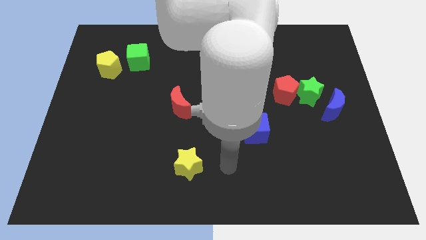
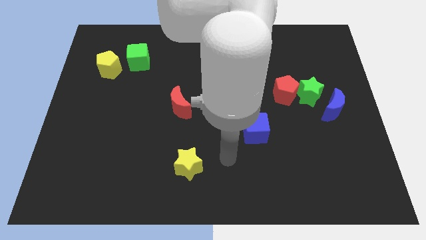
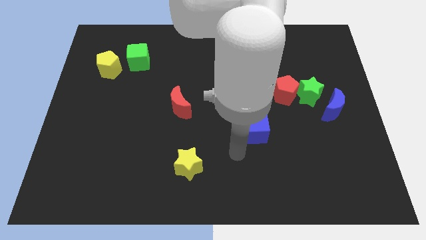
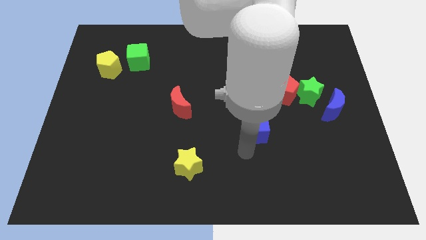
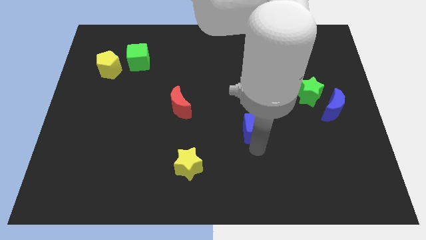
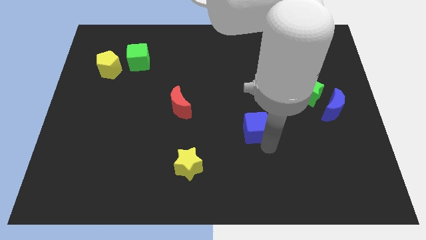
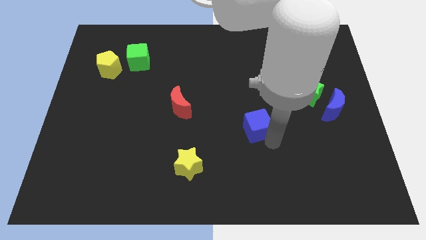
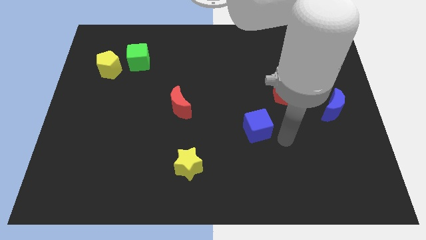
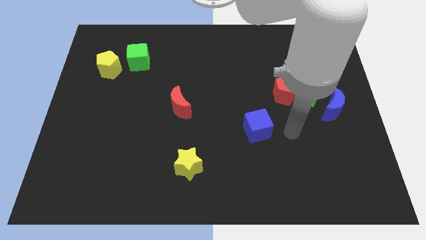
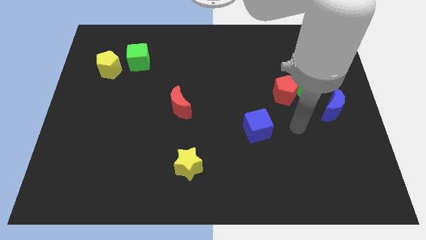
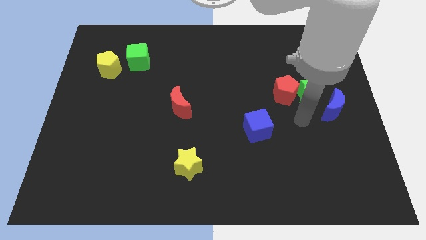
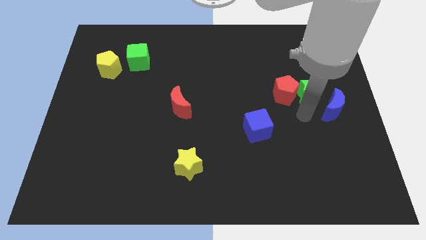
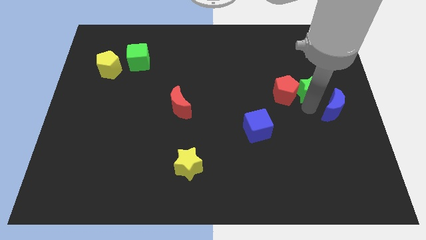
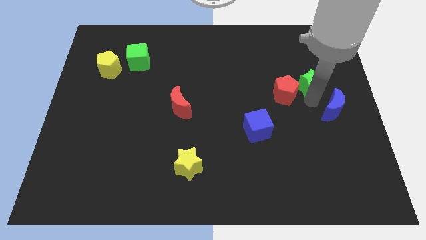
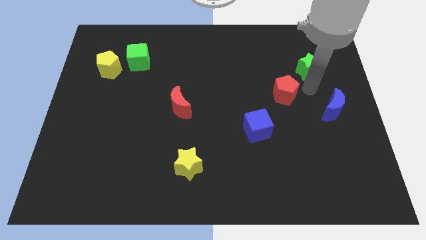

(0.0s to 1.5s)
move the red pentagon away from the green star

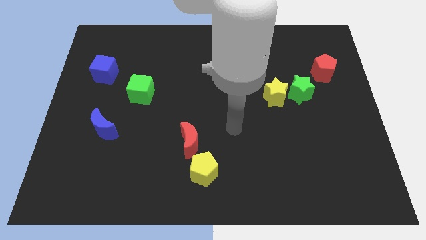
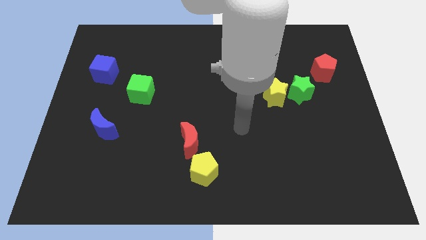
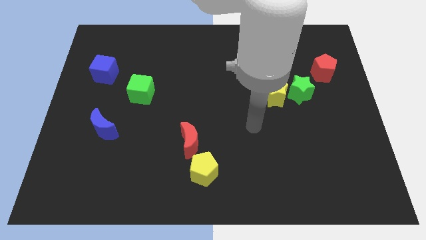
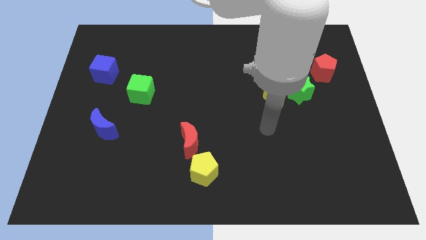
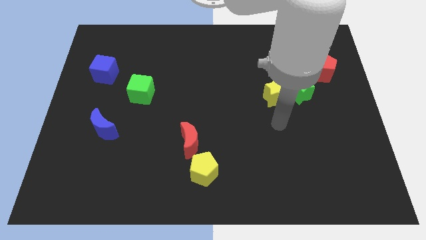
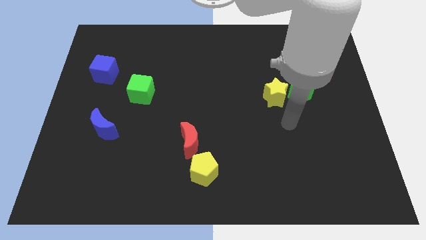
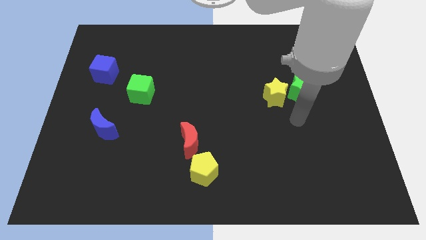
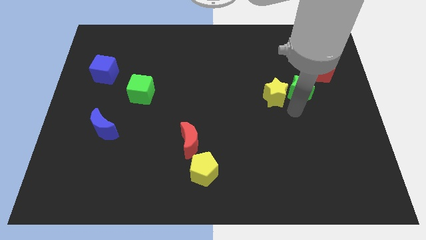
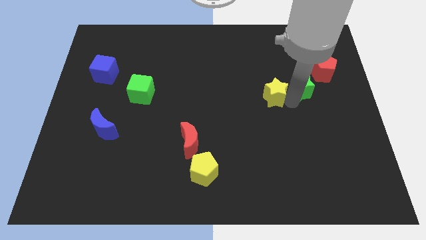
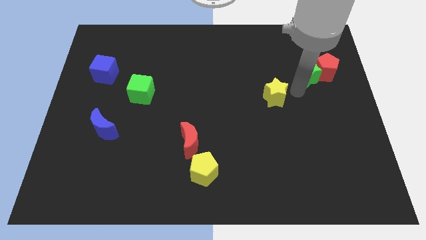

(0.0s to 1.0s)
separate the yellow star from the green star

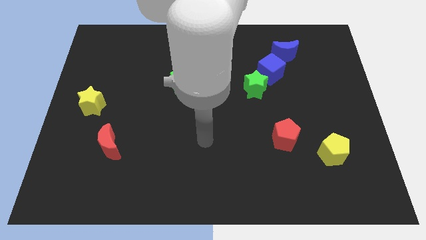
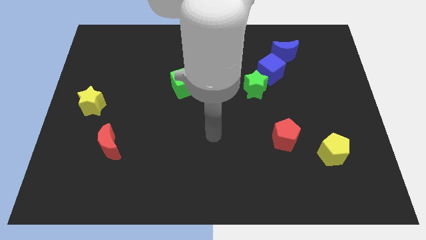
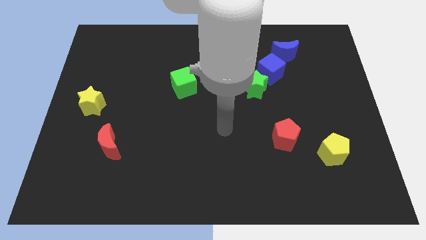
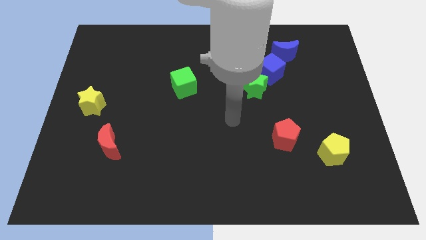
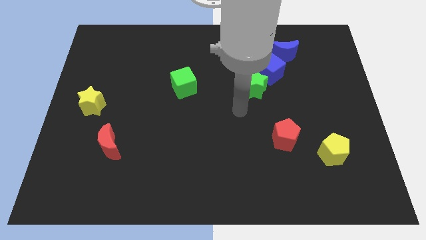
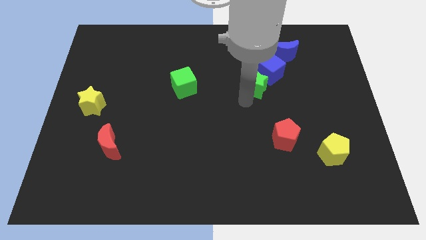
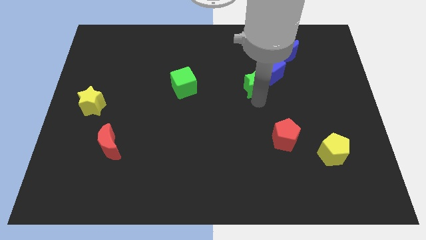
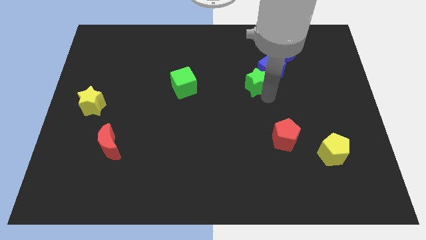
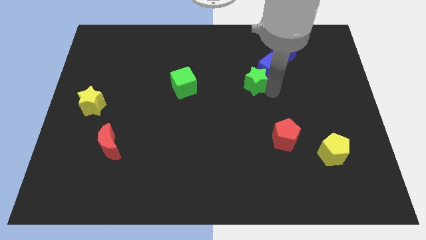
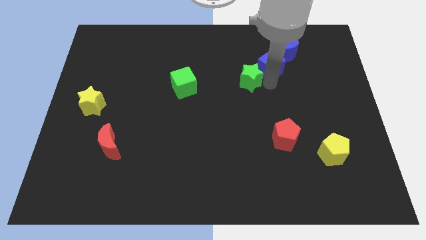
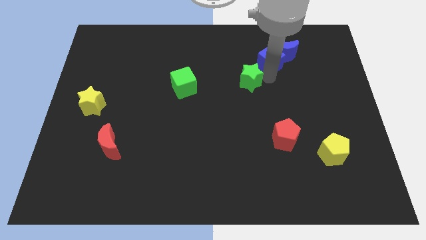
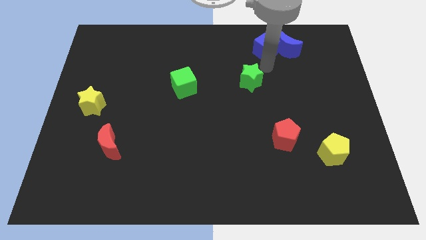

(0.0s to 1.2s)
pull the green star apart from the blue cube

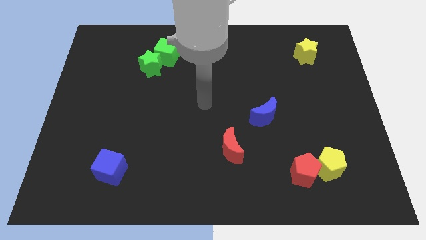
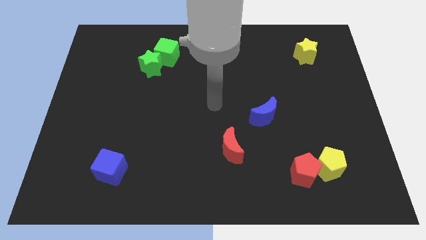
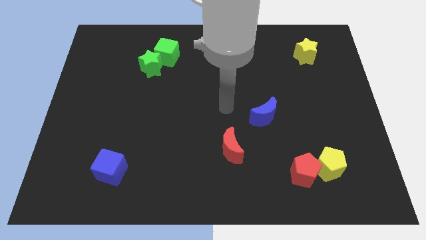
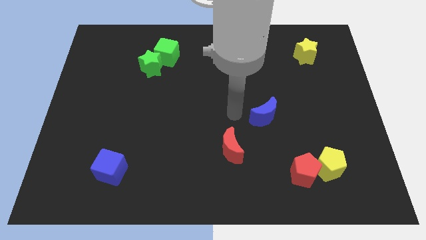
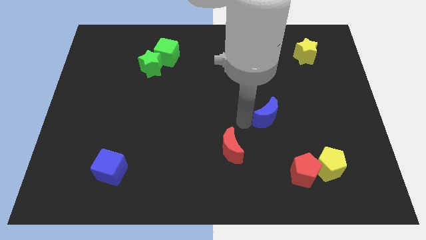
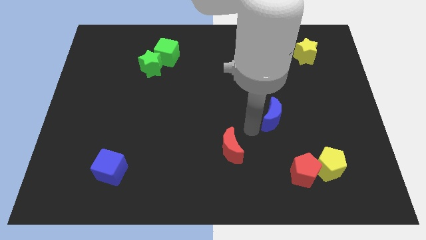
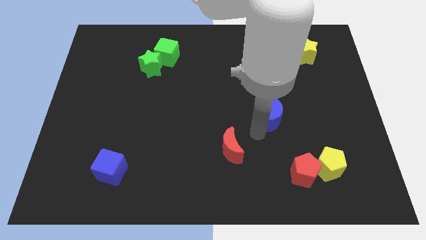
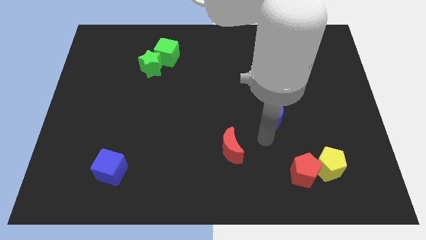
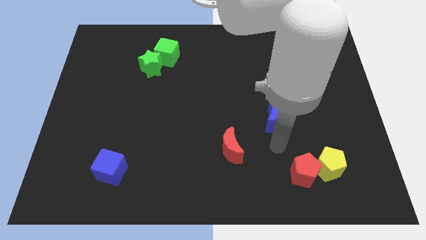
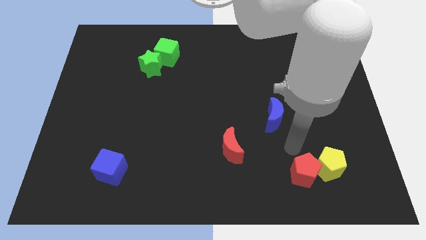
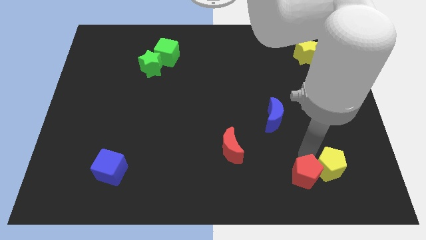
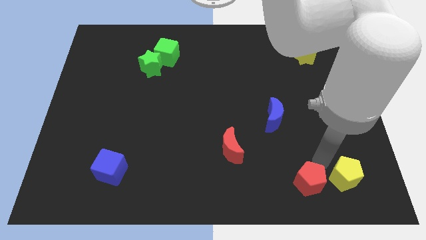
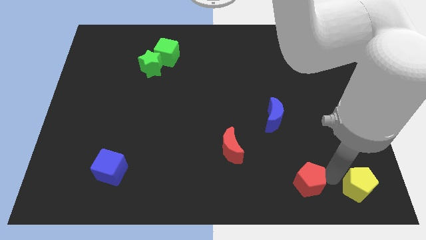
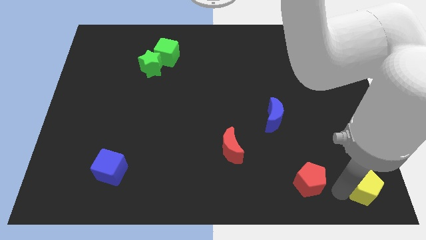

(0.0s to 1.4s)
separate the red pentagon from the yellow pentagon

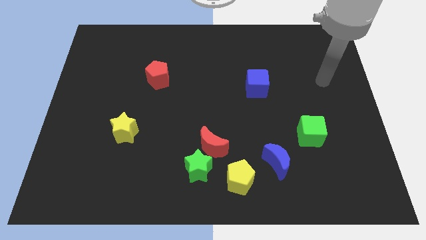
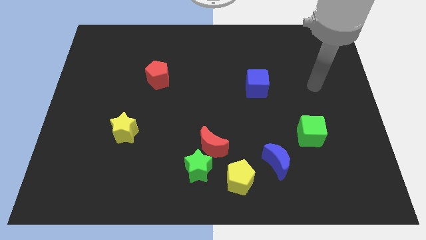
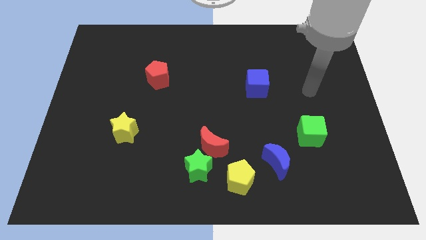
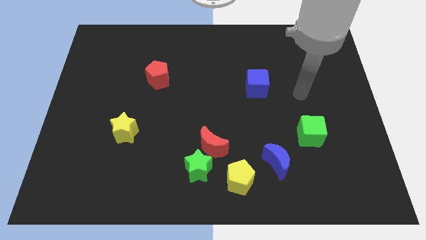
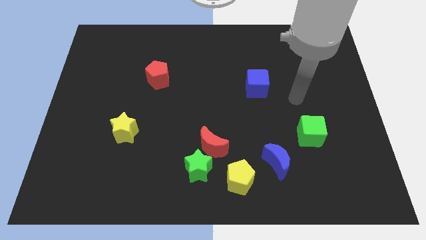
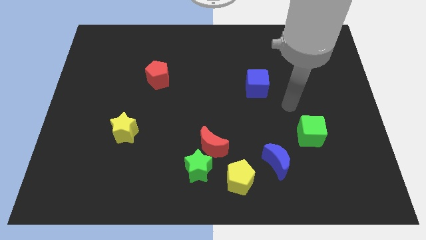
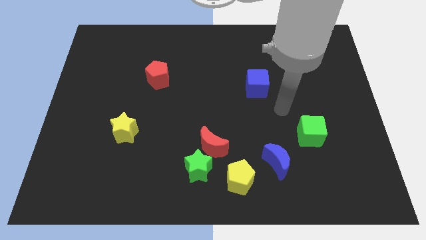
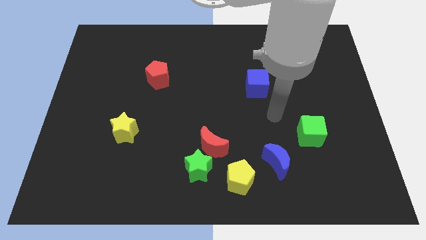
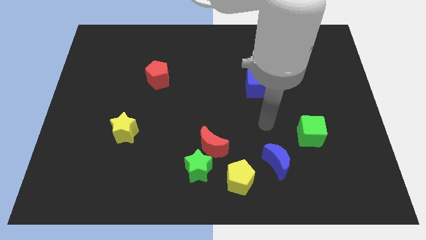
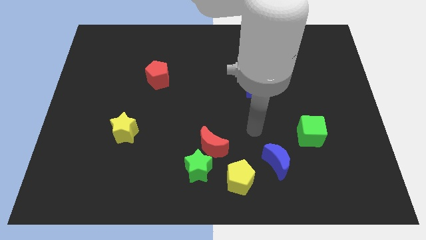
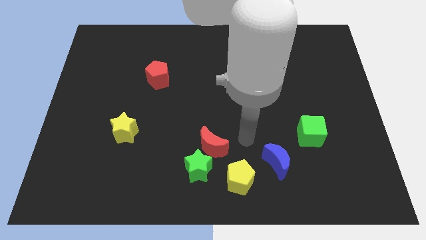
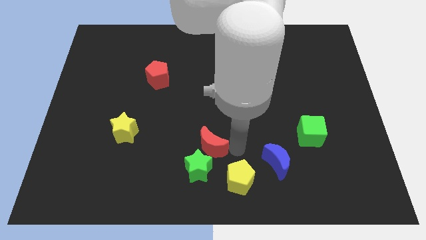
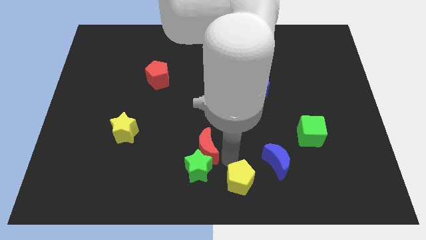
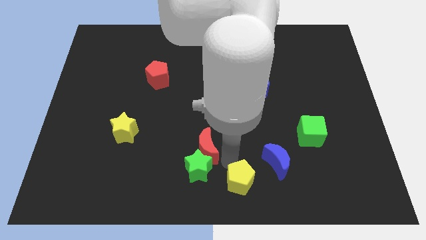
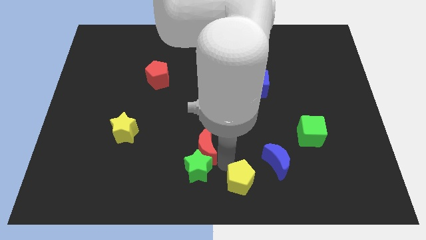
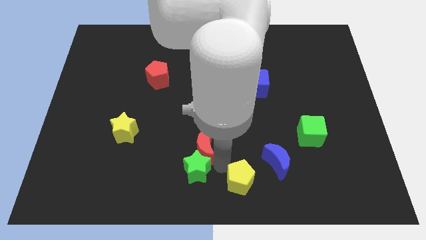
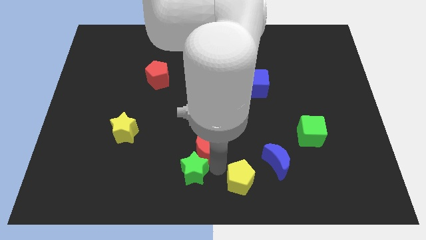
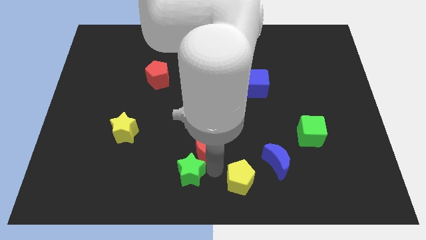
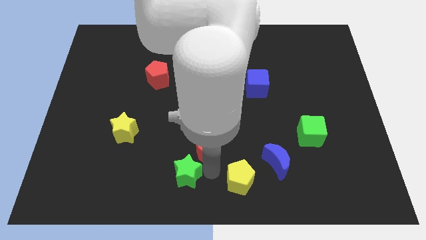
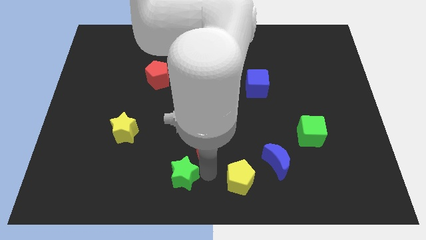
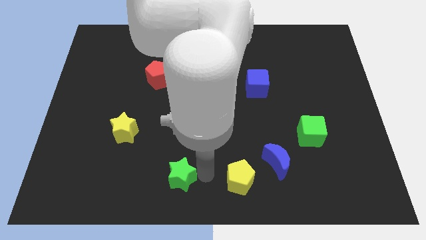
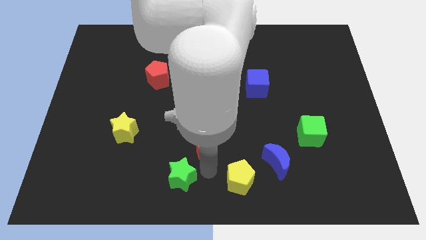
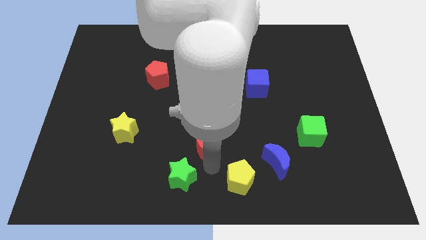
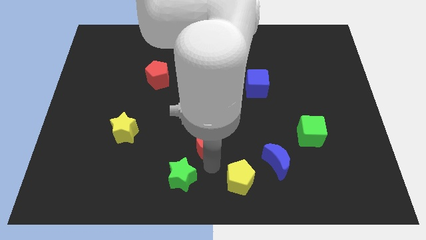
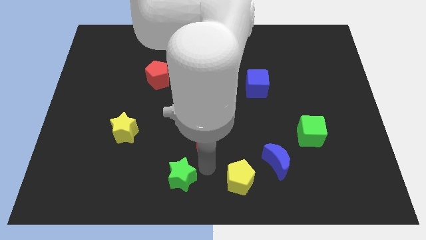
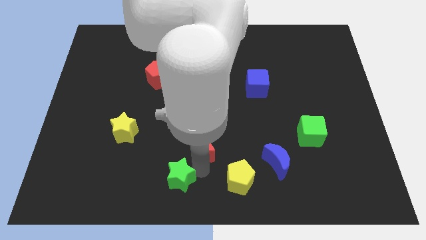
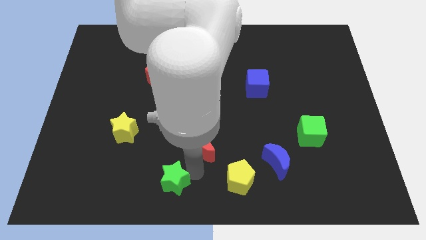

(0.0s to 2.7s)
separate the green star from the red moon and yellow pentagon

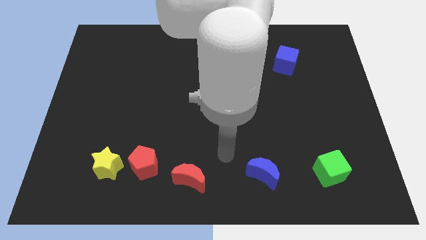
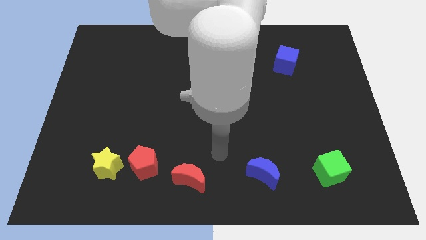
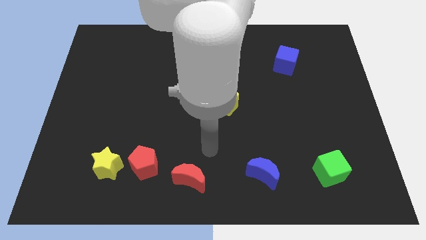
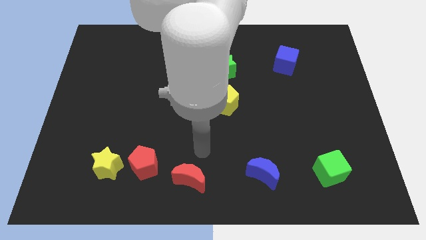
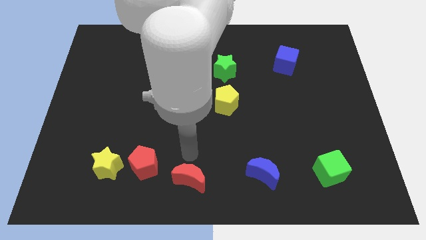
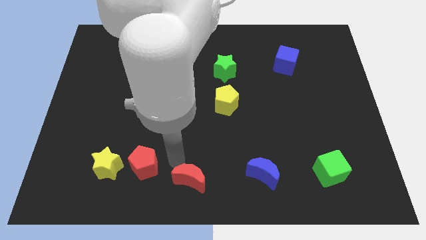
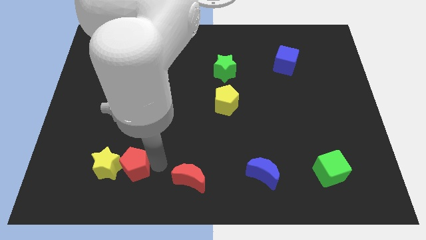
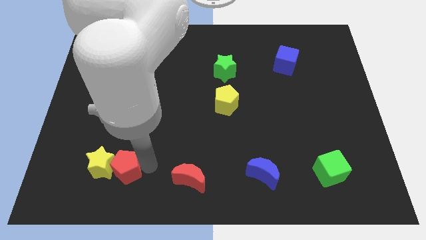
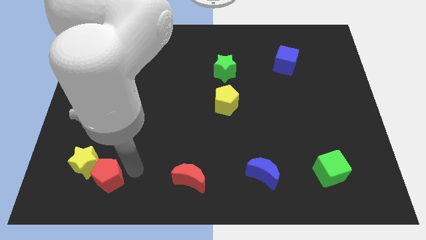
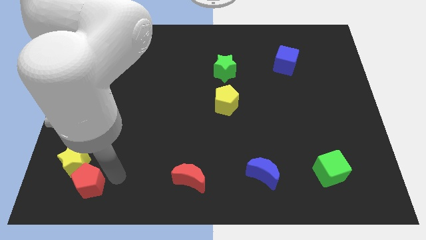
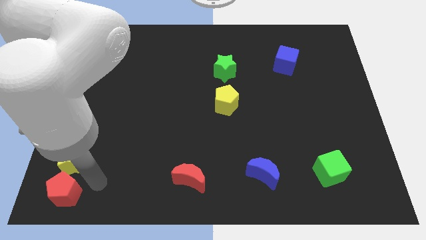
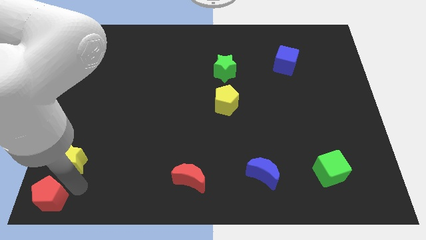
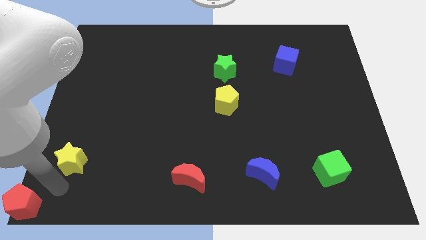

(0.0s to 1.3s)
move the yellow star away from the red pentagon

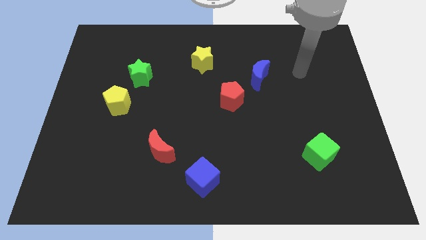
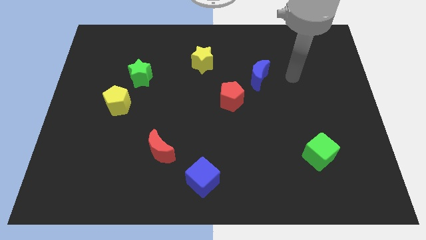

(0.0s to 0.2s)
pull the green star apart from the yellow pentagon
